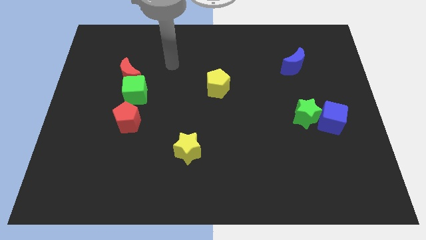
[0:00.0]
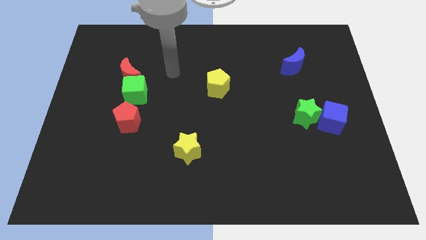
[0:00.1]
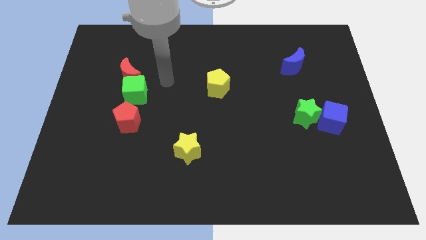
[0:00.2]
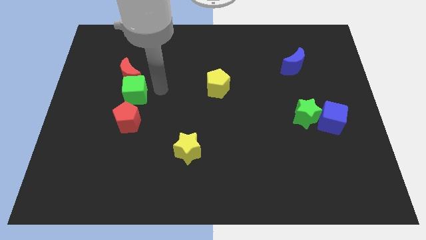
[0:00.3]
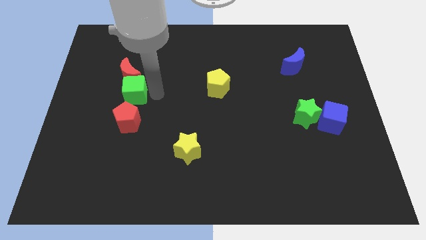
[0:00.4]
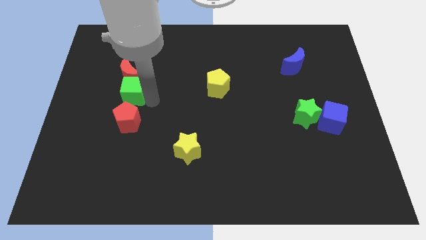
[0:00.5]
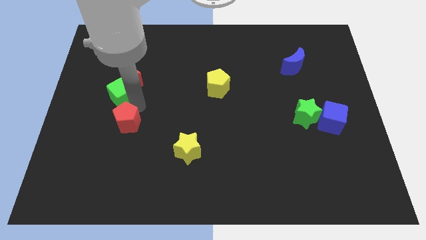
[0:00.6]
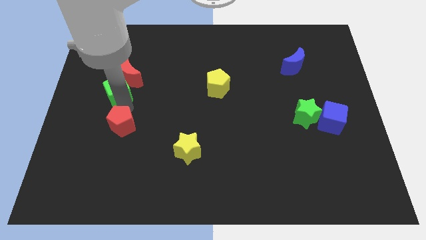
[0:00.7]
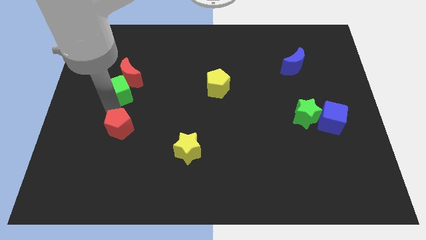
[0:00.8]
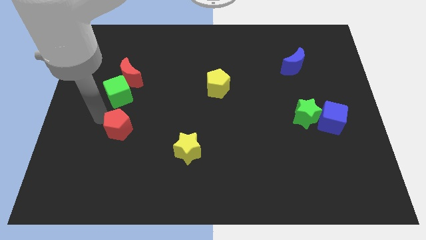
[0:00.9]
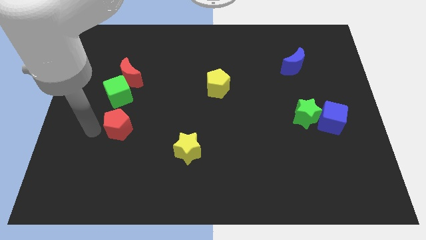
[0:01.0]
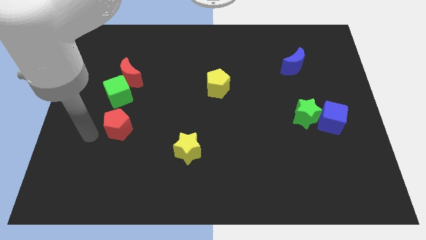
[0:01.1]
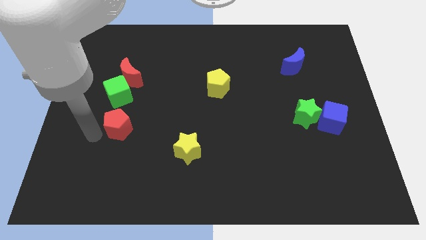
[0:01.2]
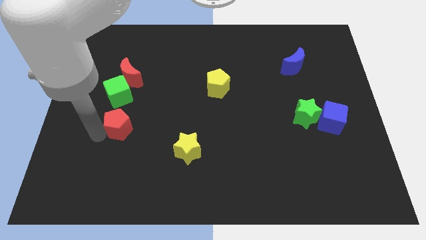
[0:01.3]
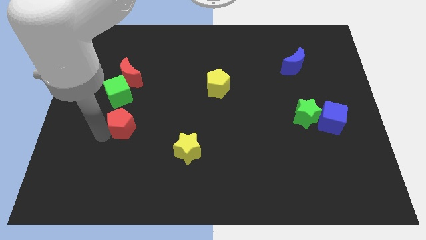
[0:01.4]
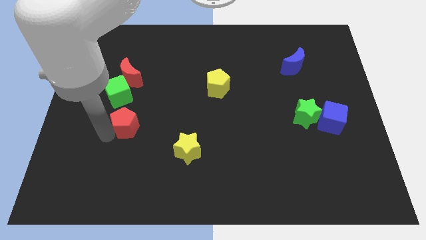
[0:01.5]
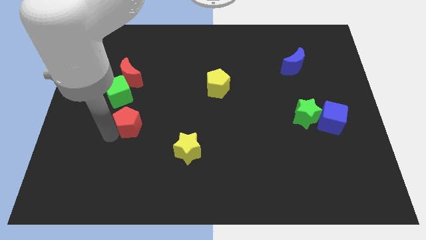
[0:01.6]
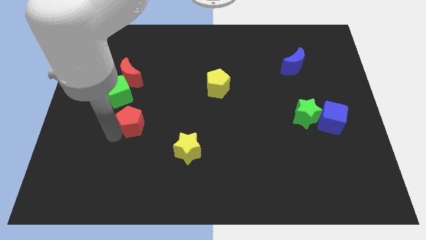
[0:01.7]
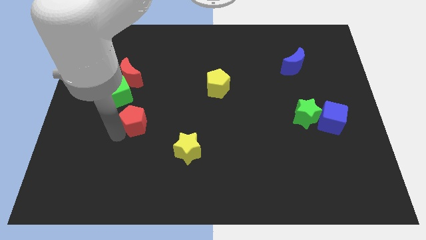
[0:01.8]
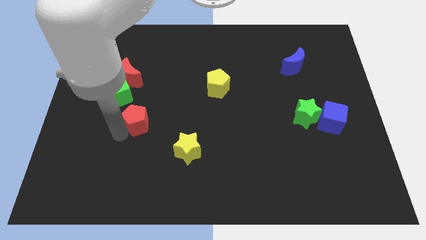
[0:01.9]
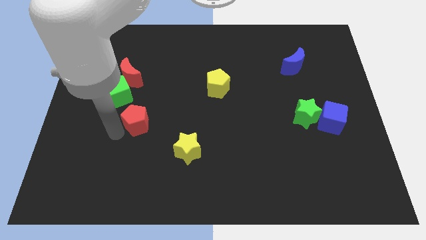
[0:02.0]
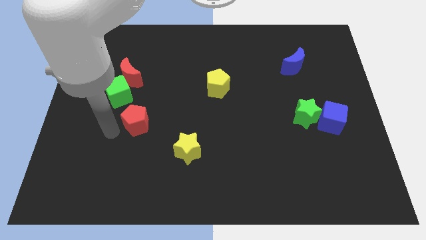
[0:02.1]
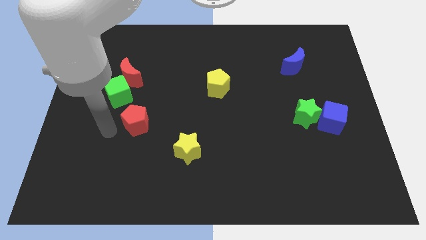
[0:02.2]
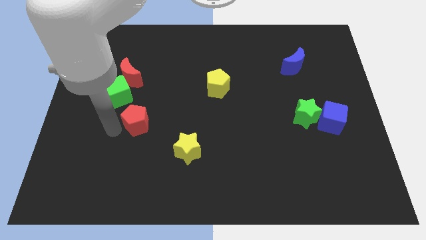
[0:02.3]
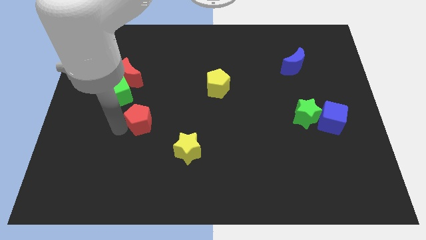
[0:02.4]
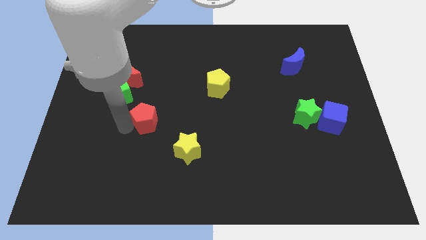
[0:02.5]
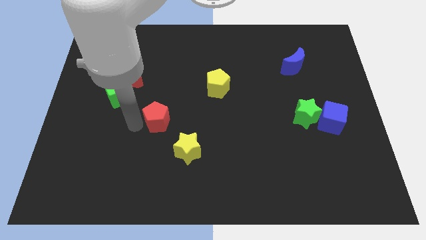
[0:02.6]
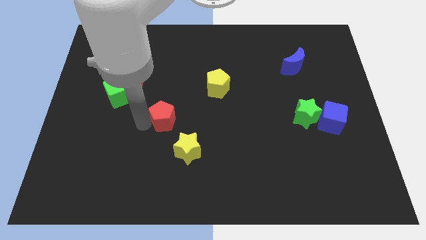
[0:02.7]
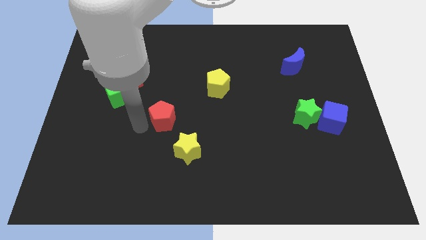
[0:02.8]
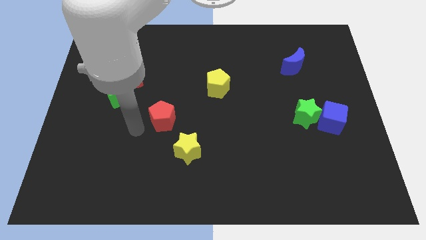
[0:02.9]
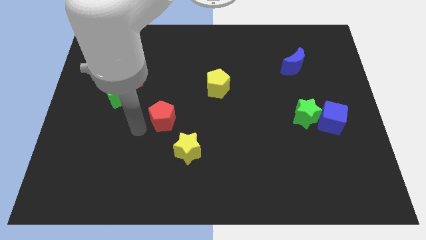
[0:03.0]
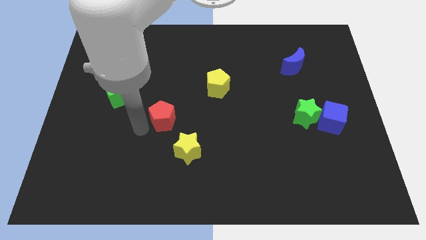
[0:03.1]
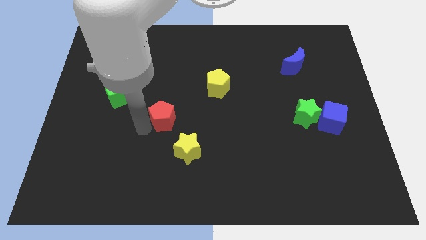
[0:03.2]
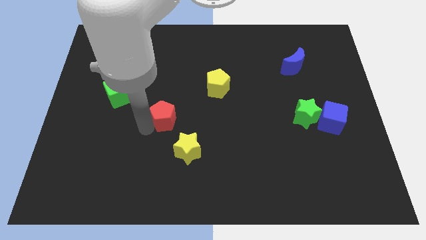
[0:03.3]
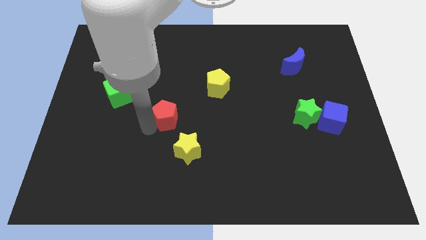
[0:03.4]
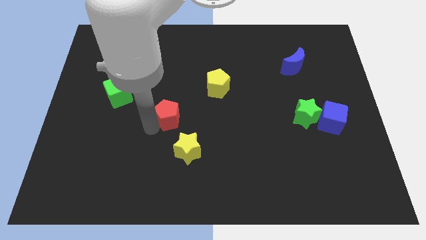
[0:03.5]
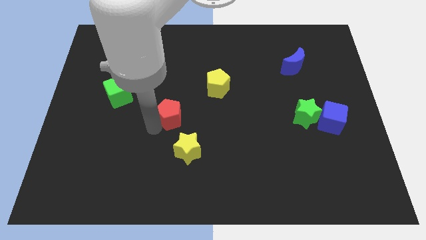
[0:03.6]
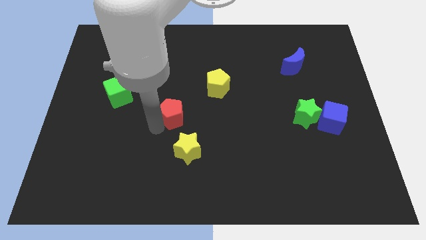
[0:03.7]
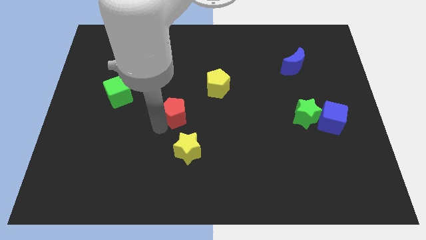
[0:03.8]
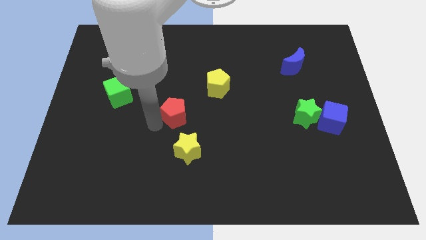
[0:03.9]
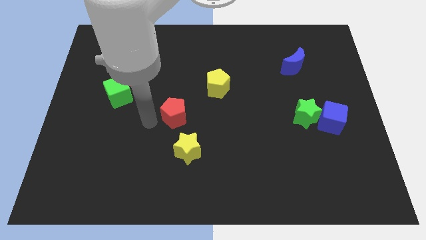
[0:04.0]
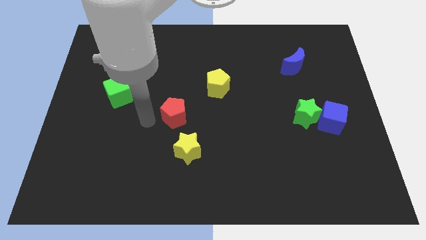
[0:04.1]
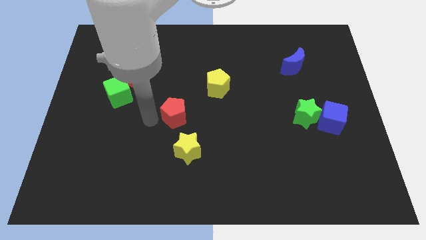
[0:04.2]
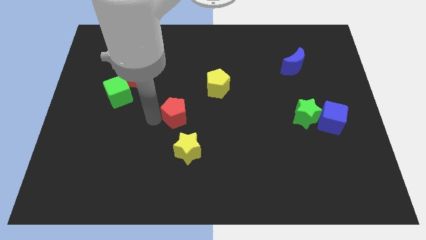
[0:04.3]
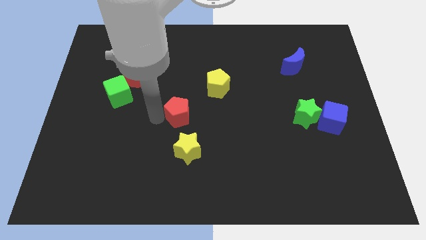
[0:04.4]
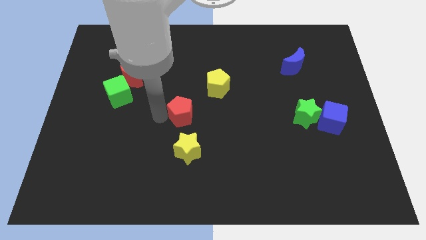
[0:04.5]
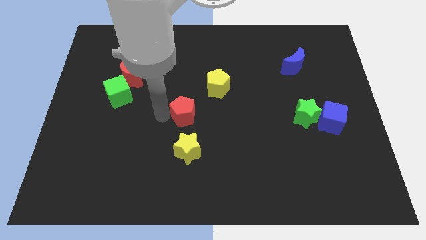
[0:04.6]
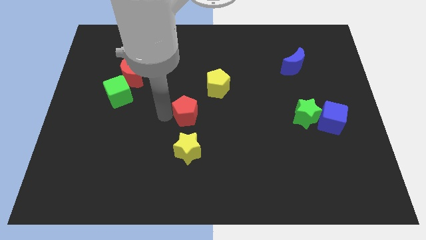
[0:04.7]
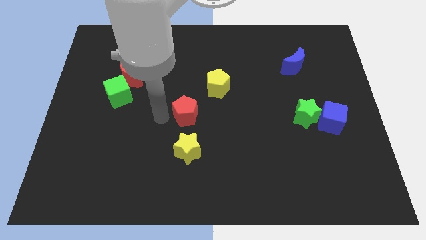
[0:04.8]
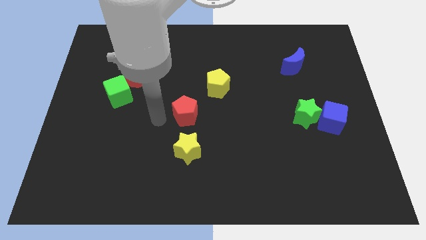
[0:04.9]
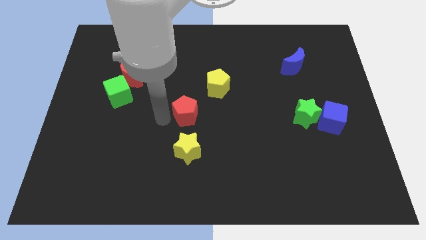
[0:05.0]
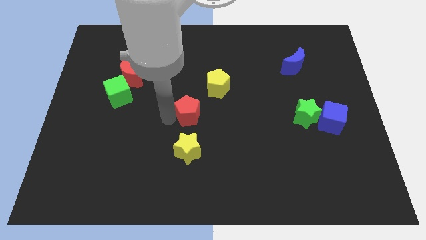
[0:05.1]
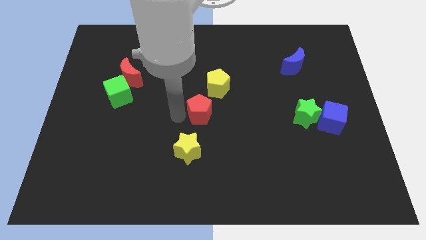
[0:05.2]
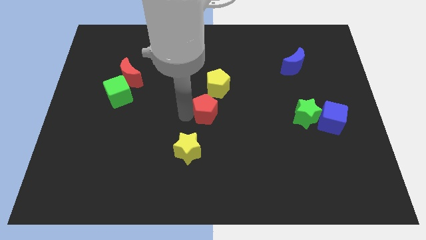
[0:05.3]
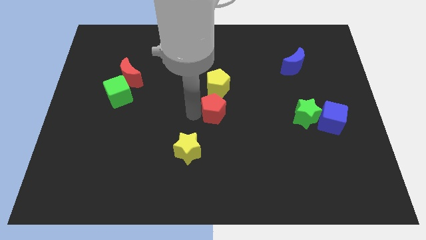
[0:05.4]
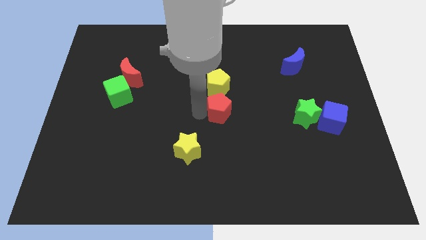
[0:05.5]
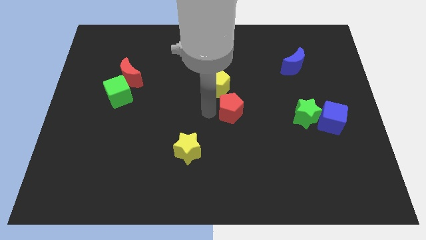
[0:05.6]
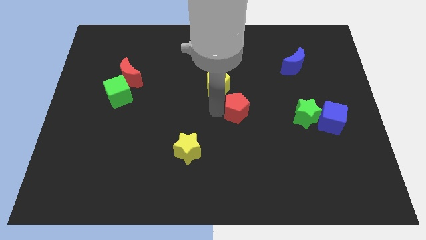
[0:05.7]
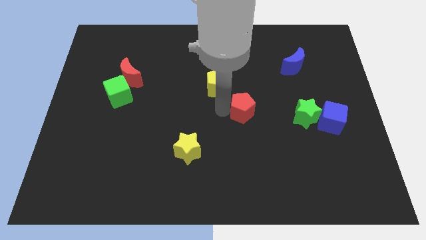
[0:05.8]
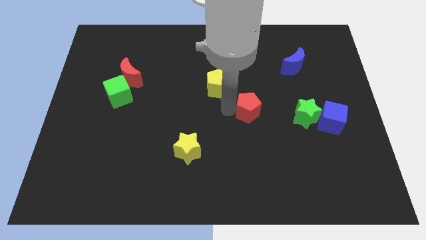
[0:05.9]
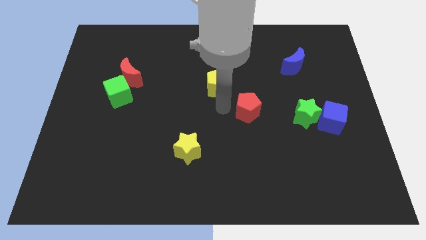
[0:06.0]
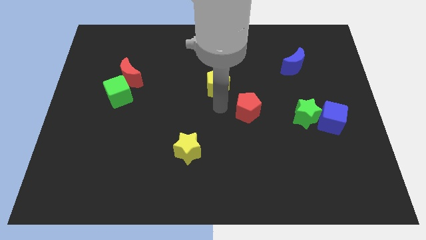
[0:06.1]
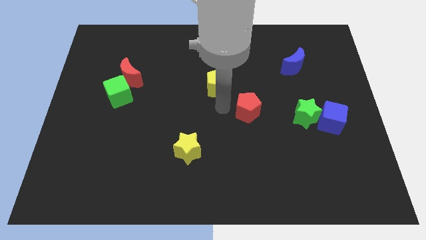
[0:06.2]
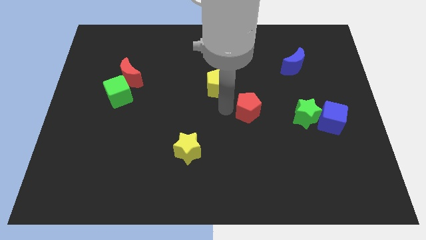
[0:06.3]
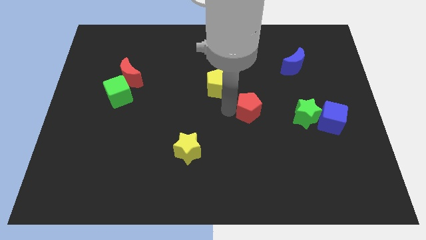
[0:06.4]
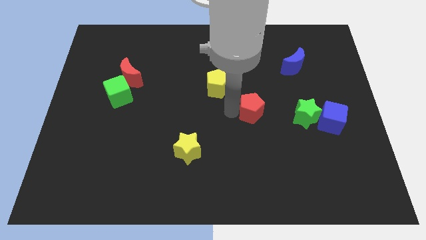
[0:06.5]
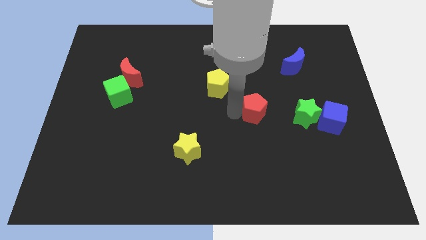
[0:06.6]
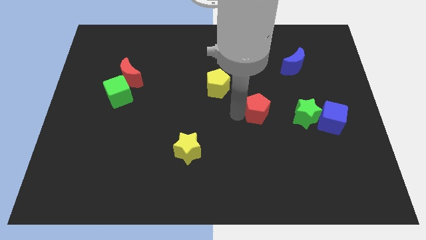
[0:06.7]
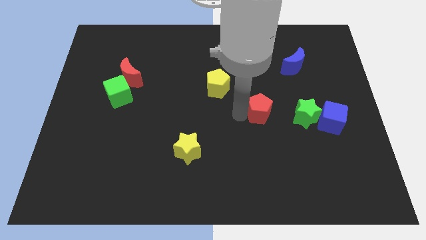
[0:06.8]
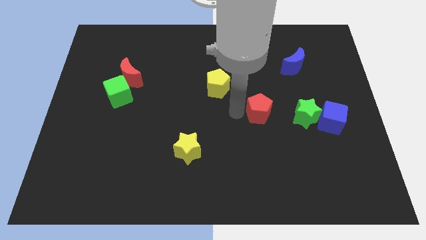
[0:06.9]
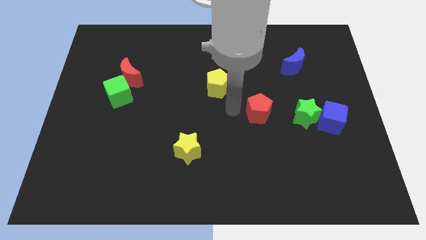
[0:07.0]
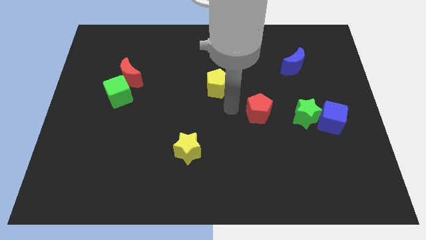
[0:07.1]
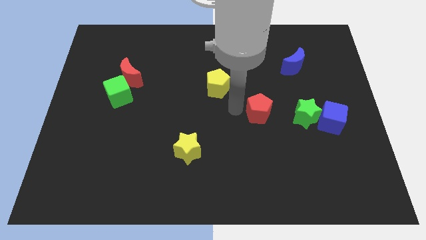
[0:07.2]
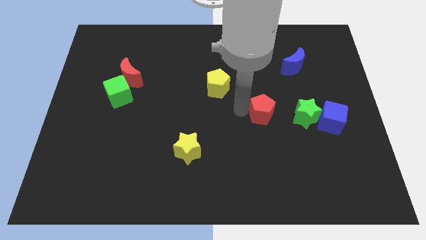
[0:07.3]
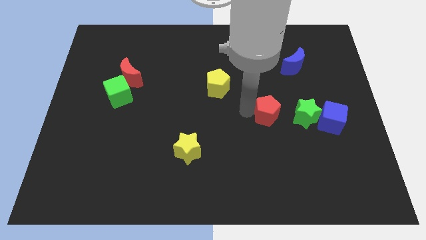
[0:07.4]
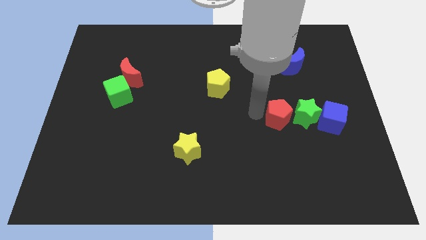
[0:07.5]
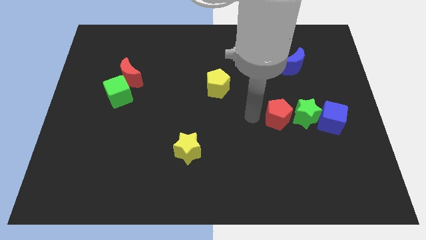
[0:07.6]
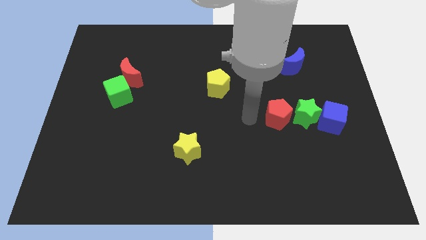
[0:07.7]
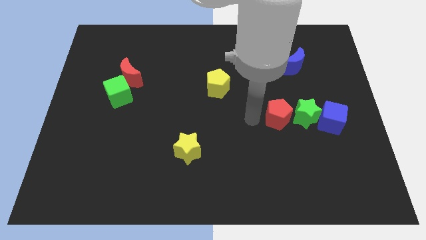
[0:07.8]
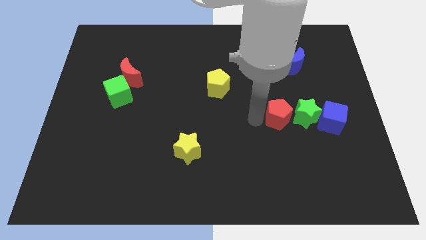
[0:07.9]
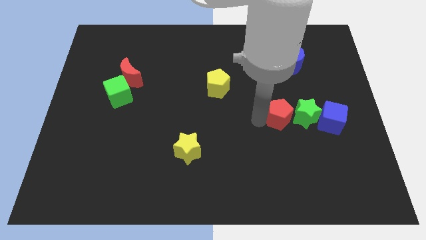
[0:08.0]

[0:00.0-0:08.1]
move the red pentagon to the green star
